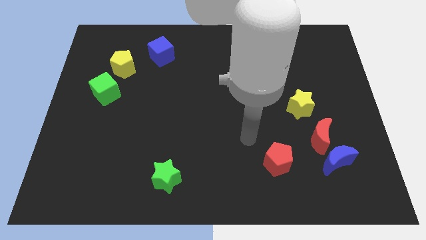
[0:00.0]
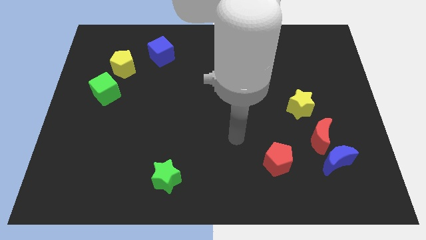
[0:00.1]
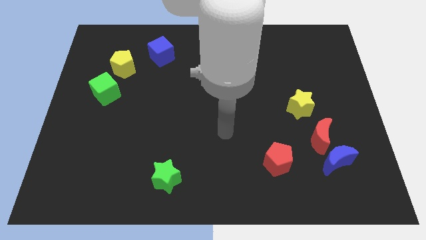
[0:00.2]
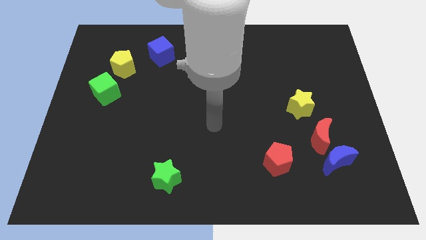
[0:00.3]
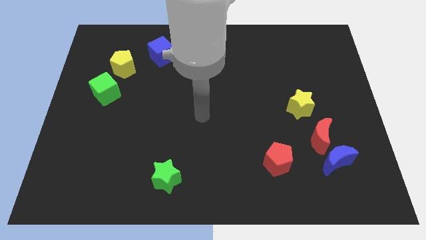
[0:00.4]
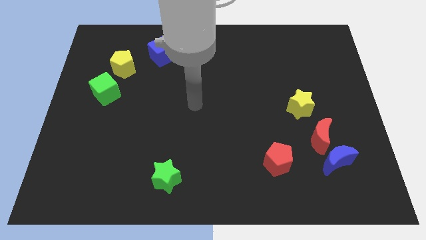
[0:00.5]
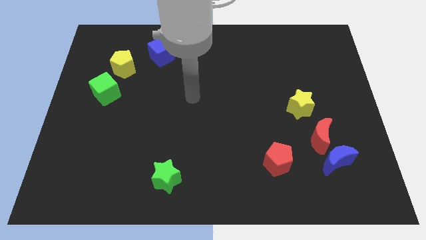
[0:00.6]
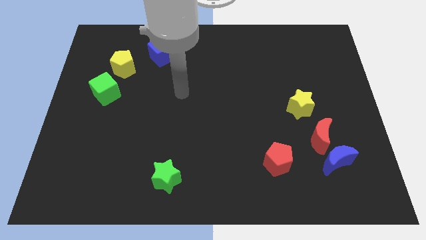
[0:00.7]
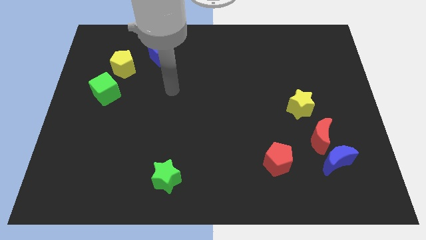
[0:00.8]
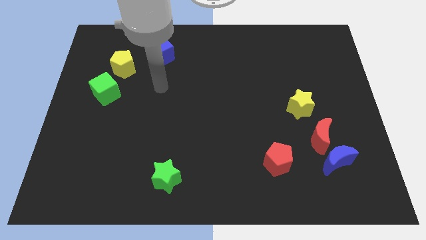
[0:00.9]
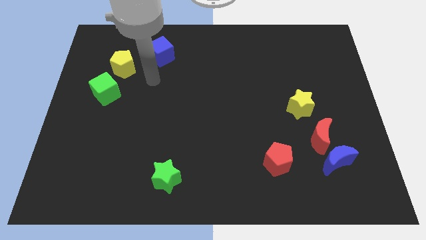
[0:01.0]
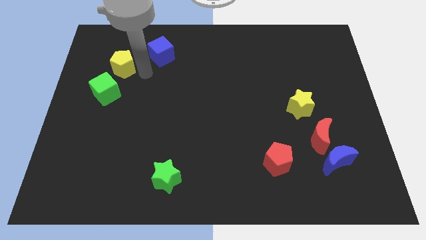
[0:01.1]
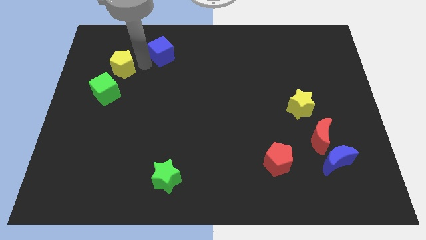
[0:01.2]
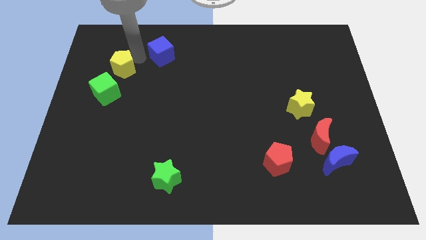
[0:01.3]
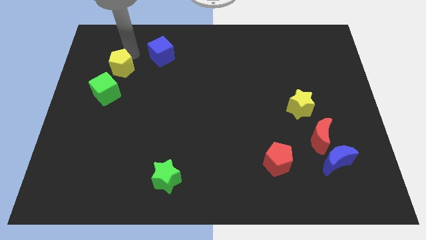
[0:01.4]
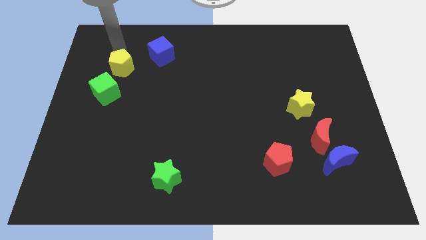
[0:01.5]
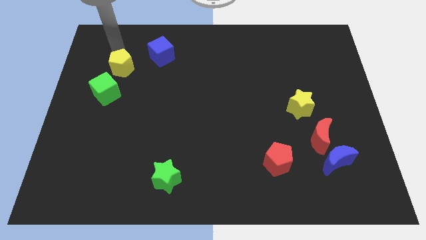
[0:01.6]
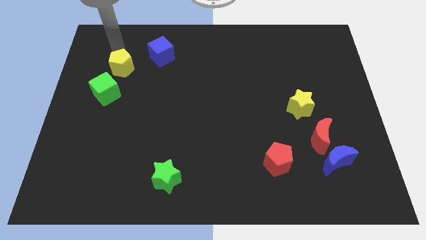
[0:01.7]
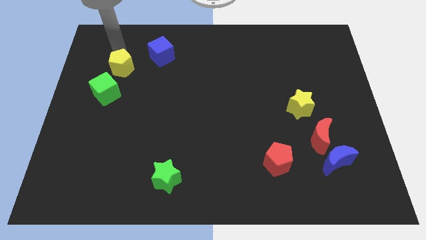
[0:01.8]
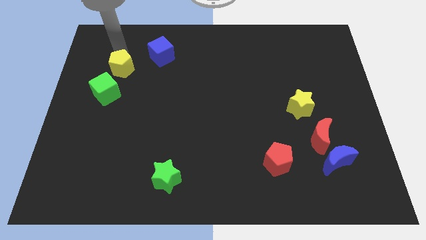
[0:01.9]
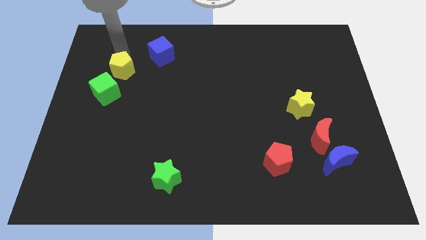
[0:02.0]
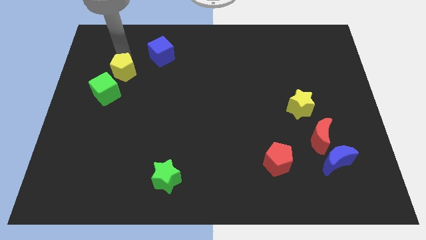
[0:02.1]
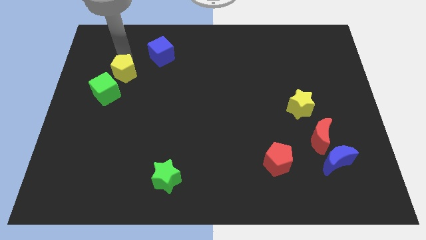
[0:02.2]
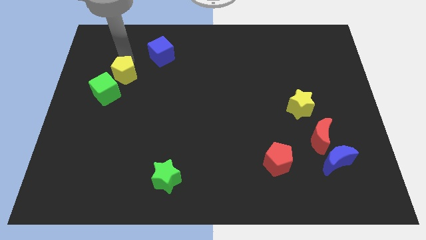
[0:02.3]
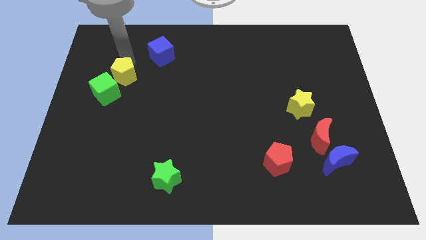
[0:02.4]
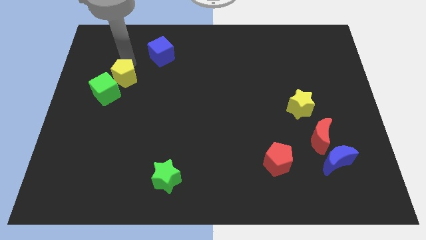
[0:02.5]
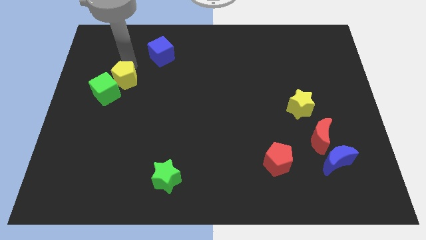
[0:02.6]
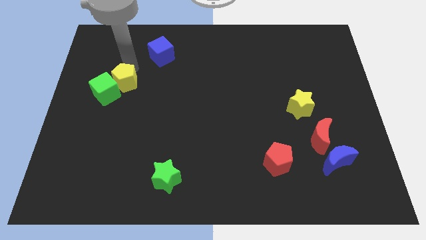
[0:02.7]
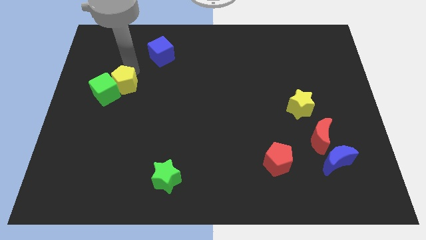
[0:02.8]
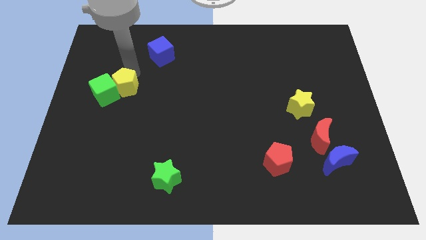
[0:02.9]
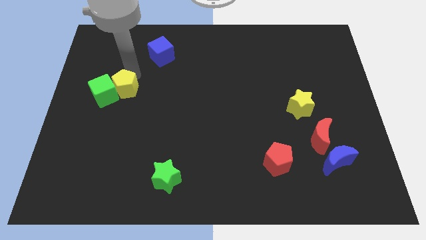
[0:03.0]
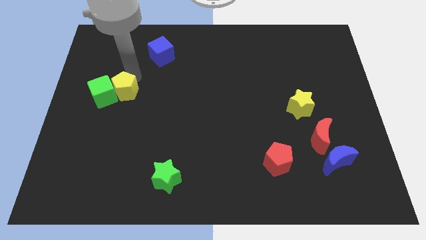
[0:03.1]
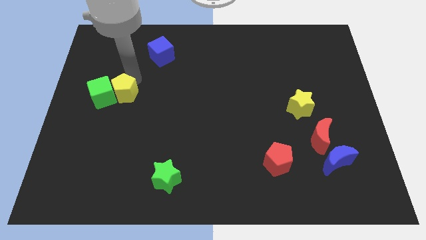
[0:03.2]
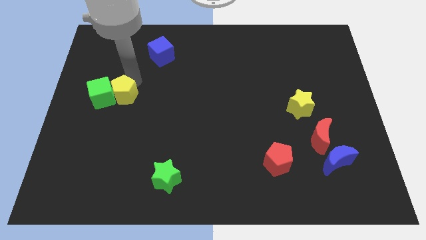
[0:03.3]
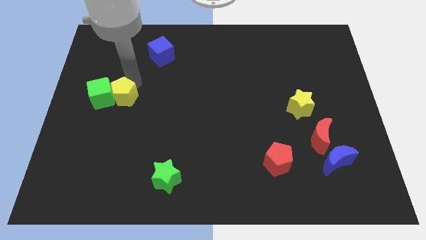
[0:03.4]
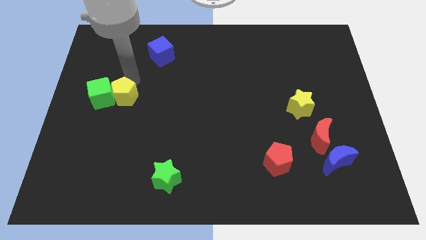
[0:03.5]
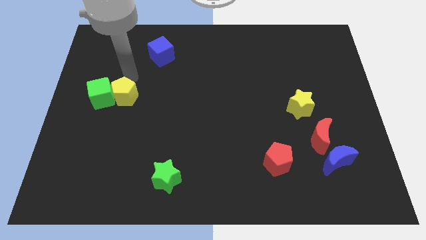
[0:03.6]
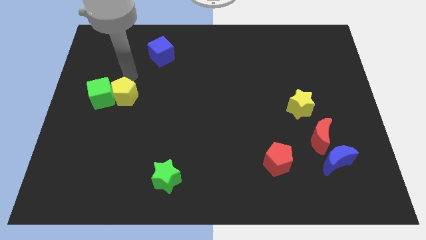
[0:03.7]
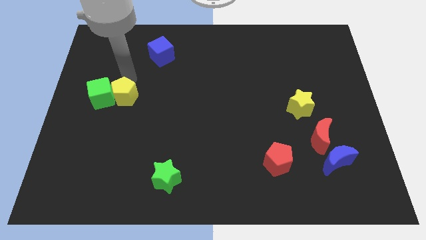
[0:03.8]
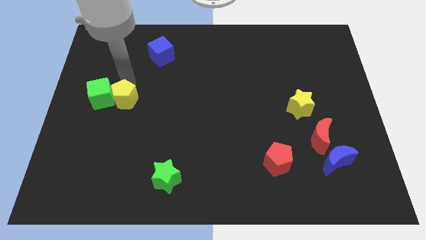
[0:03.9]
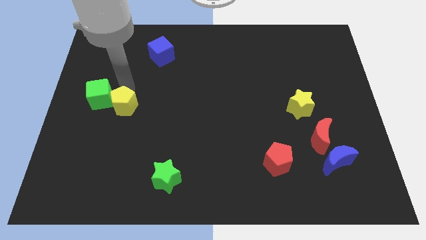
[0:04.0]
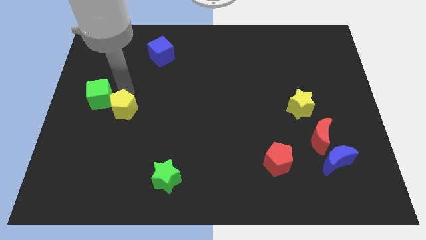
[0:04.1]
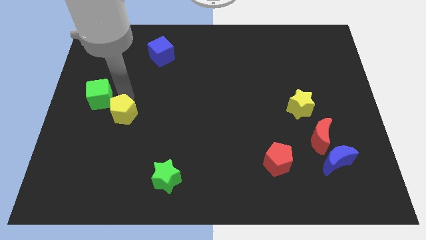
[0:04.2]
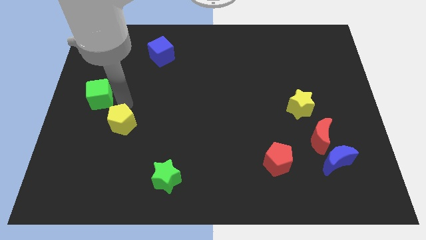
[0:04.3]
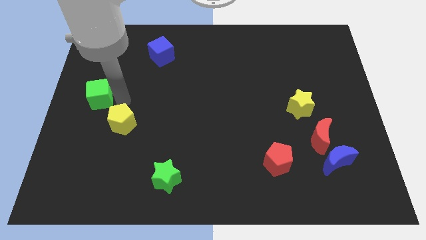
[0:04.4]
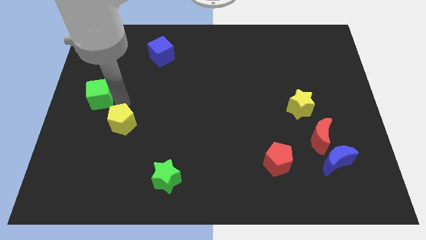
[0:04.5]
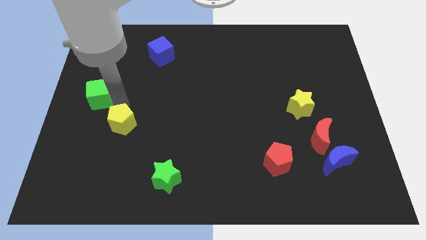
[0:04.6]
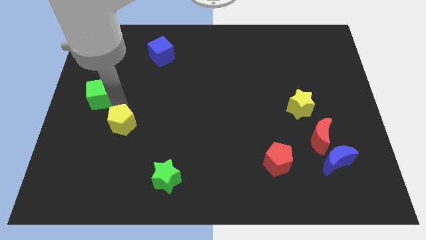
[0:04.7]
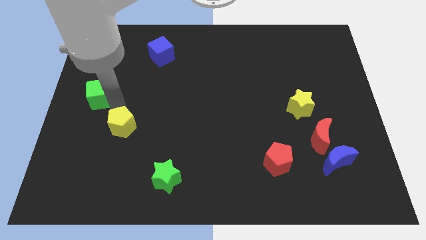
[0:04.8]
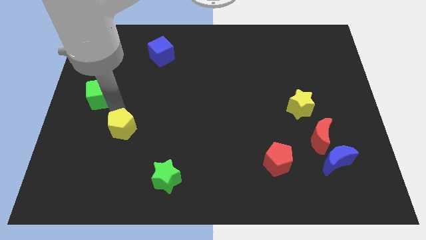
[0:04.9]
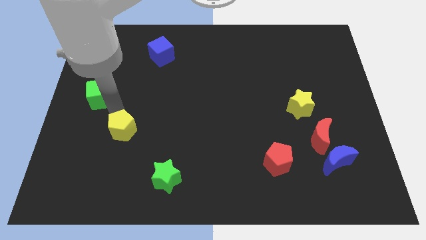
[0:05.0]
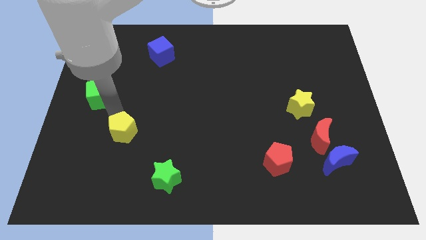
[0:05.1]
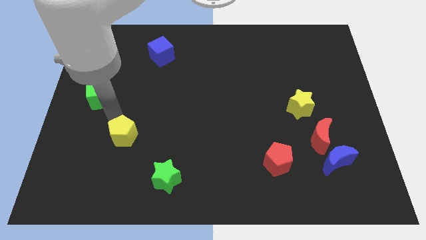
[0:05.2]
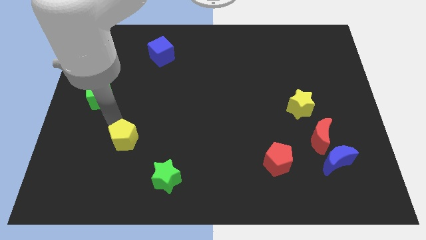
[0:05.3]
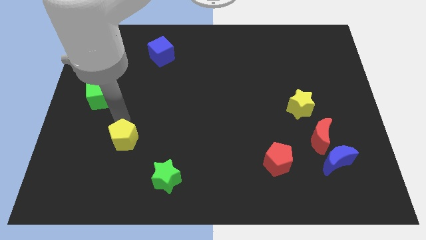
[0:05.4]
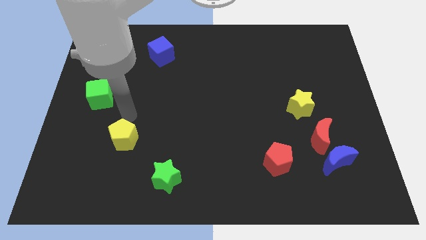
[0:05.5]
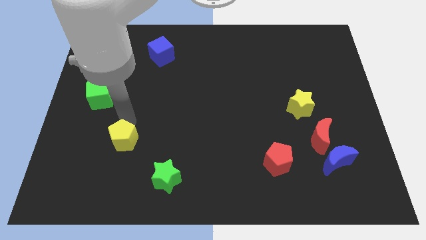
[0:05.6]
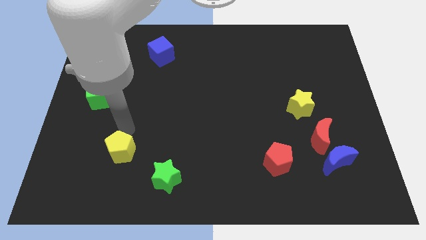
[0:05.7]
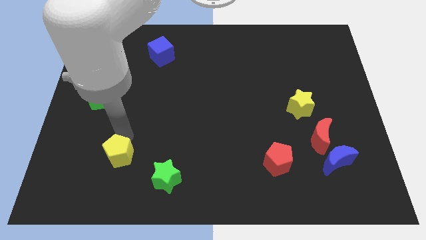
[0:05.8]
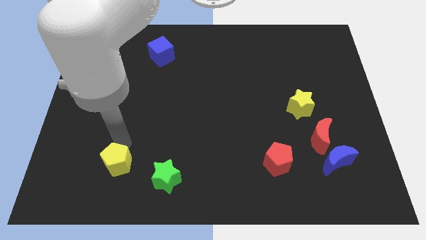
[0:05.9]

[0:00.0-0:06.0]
move the yellow pentagon just left of the green star

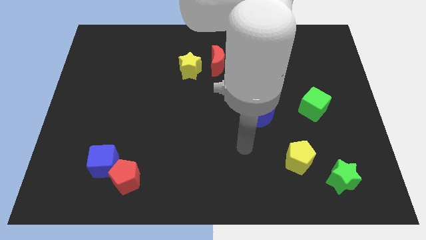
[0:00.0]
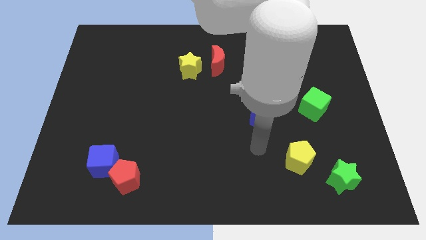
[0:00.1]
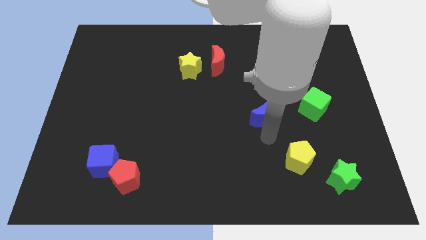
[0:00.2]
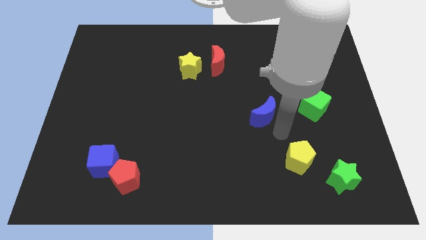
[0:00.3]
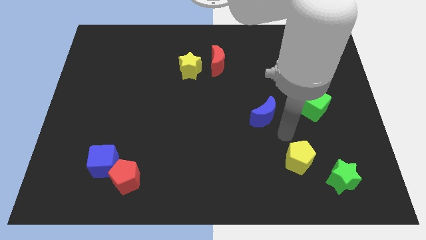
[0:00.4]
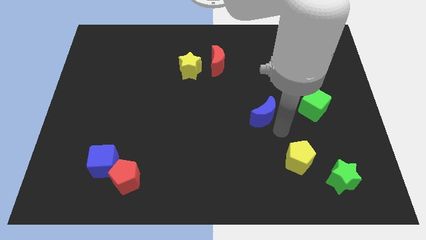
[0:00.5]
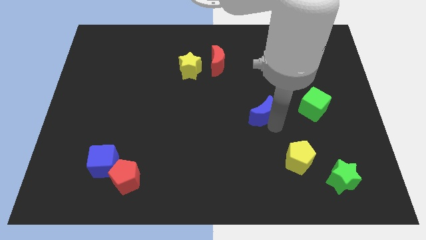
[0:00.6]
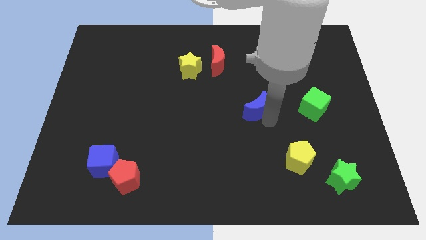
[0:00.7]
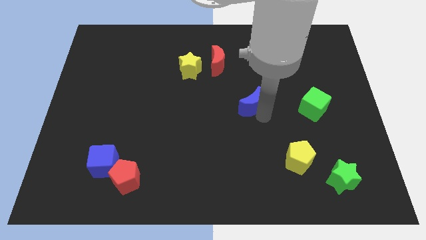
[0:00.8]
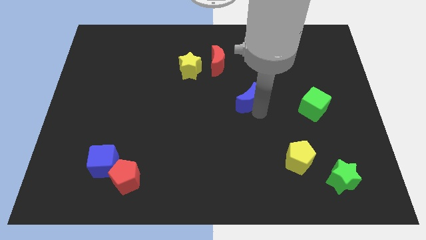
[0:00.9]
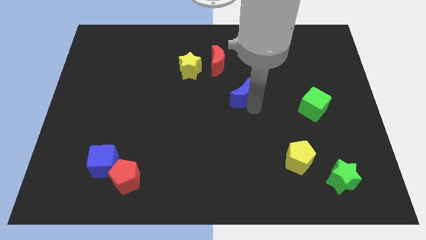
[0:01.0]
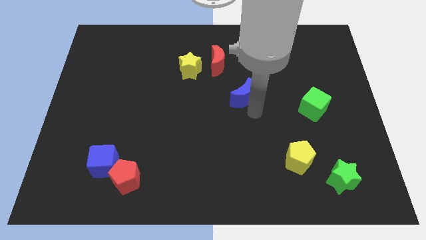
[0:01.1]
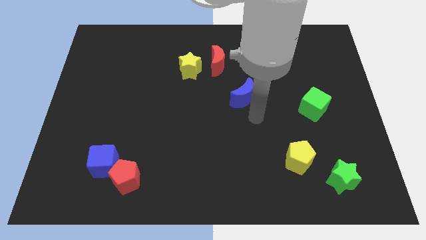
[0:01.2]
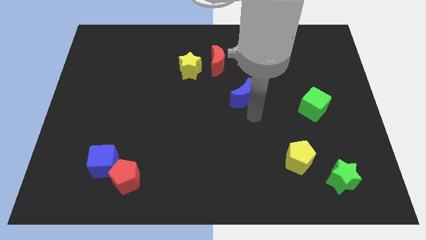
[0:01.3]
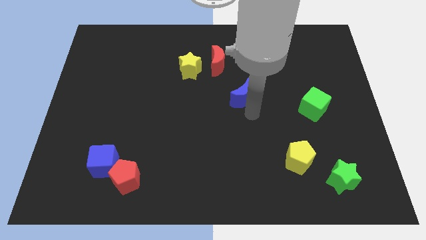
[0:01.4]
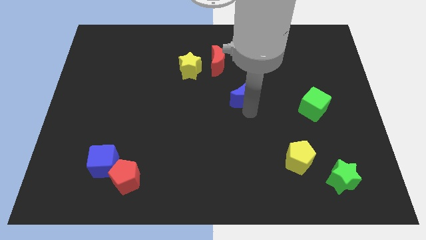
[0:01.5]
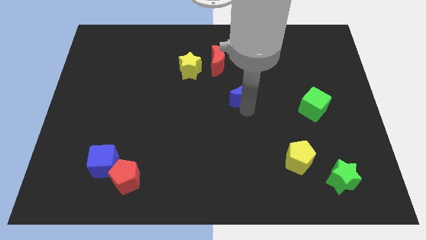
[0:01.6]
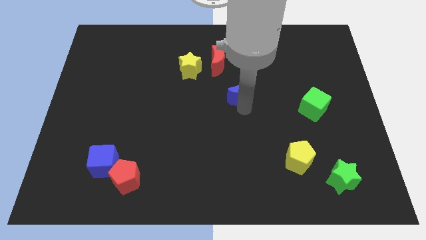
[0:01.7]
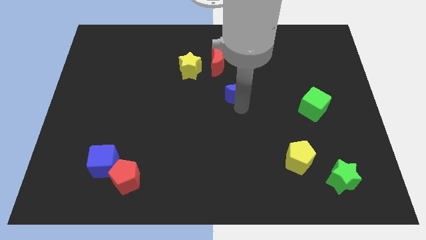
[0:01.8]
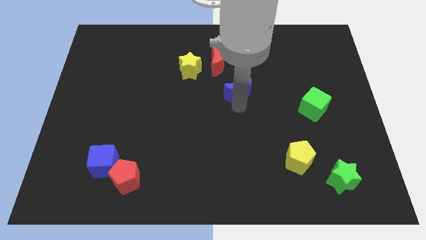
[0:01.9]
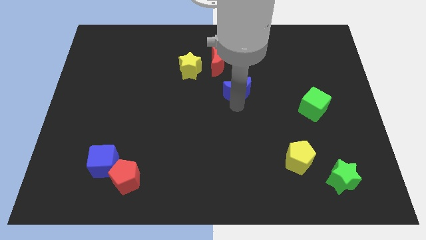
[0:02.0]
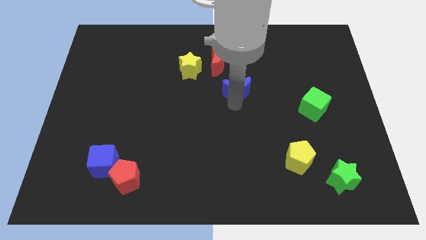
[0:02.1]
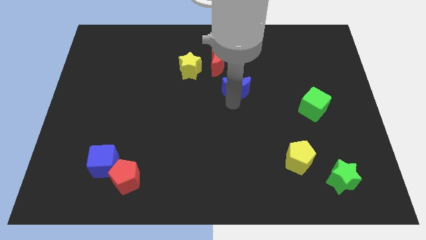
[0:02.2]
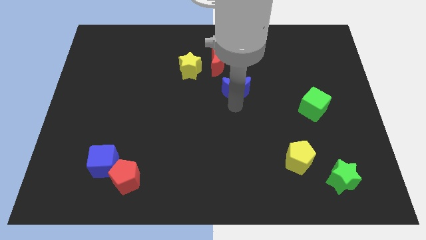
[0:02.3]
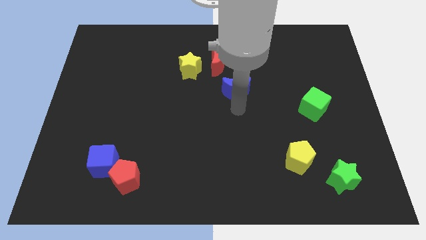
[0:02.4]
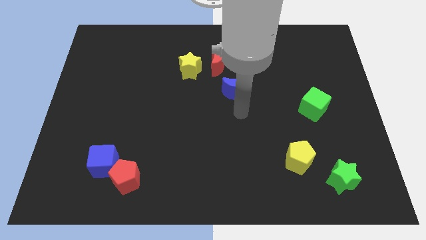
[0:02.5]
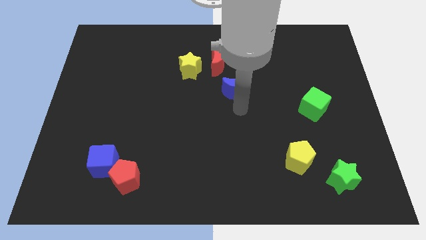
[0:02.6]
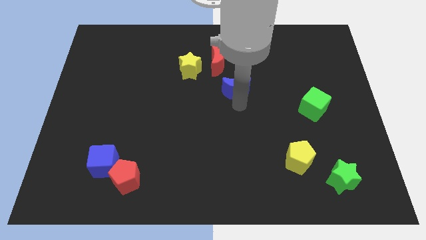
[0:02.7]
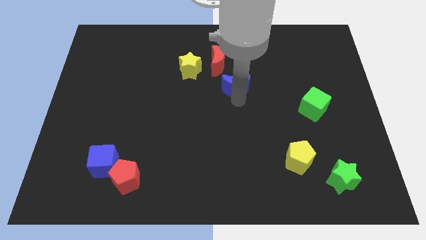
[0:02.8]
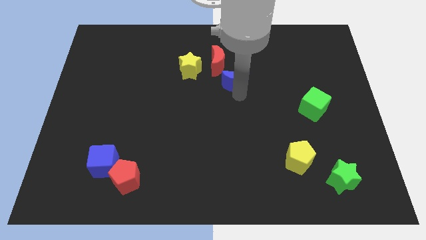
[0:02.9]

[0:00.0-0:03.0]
move the blue moon right of the yellow star
